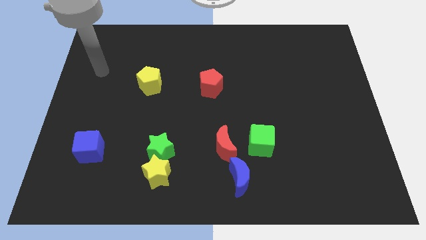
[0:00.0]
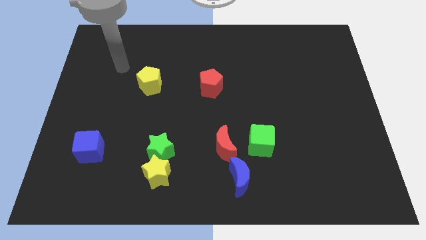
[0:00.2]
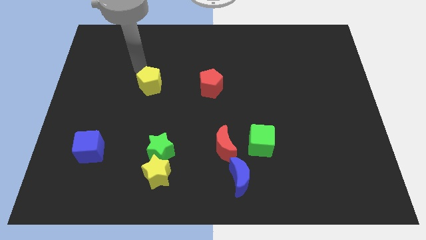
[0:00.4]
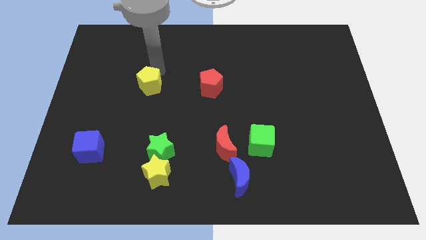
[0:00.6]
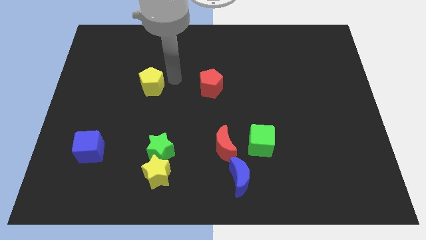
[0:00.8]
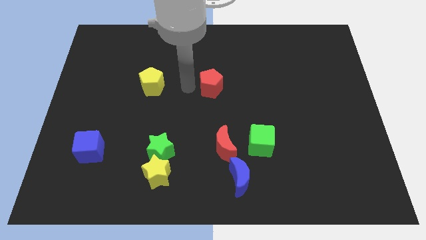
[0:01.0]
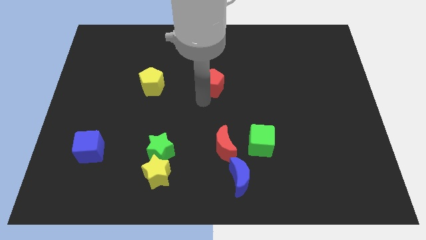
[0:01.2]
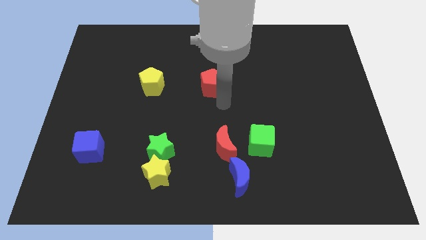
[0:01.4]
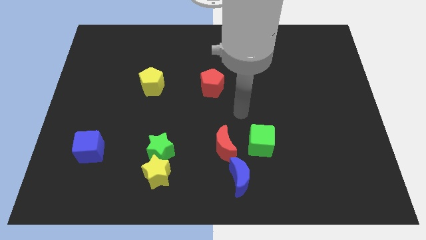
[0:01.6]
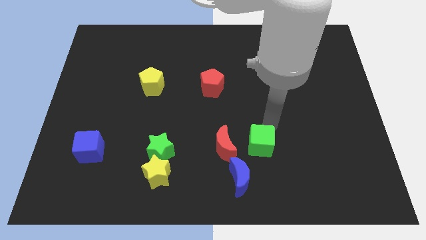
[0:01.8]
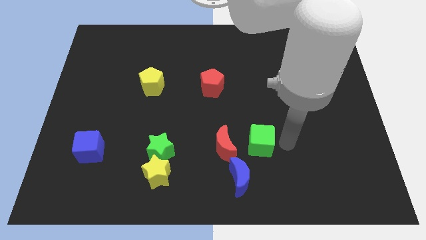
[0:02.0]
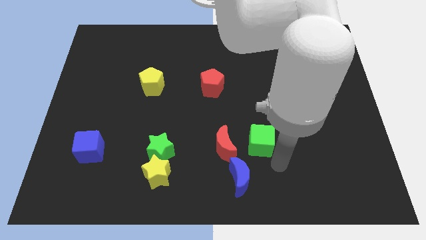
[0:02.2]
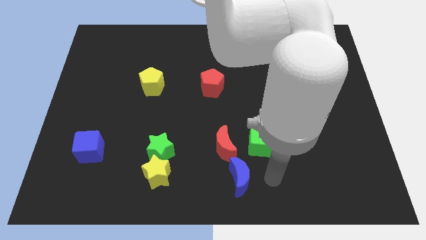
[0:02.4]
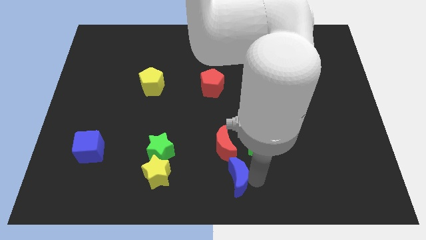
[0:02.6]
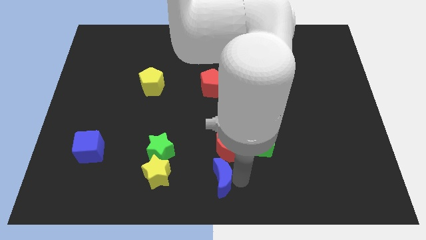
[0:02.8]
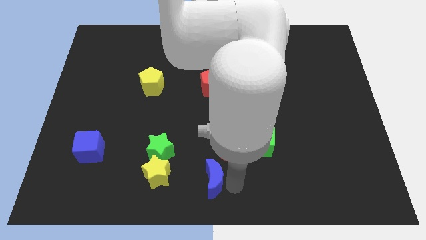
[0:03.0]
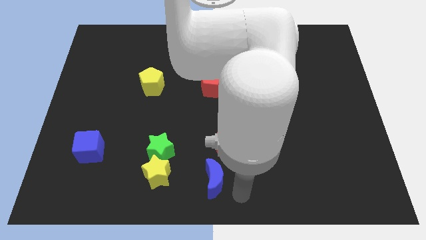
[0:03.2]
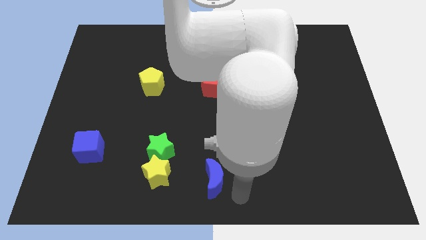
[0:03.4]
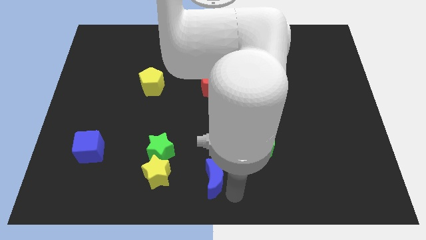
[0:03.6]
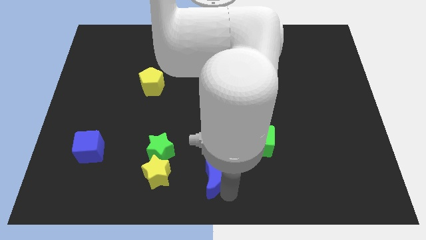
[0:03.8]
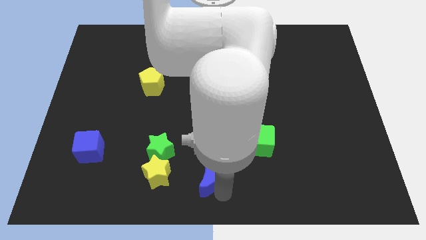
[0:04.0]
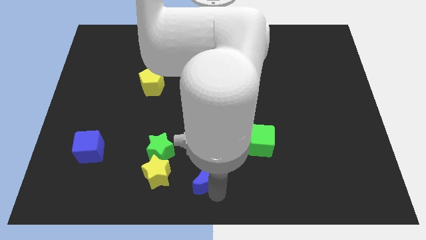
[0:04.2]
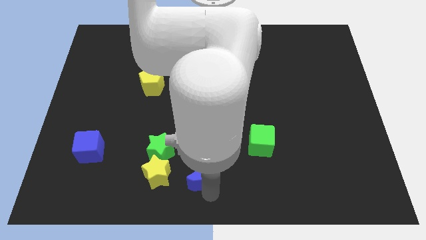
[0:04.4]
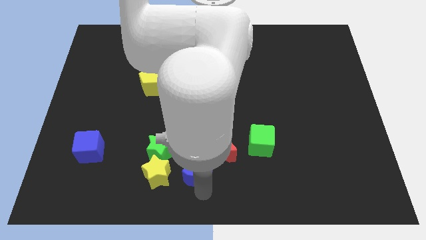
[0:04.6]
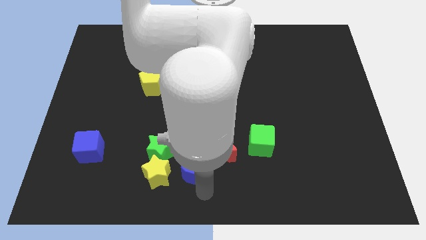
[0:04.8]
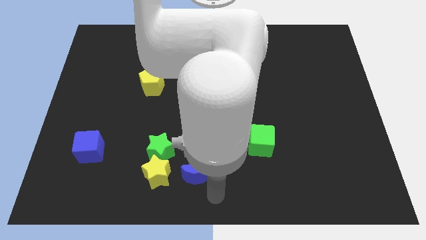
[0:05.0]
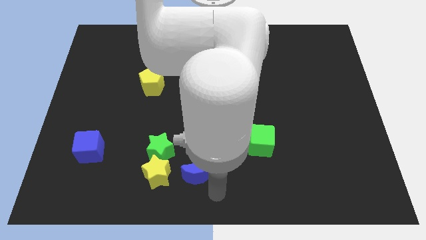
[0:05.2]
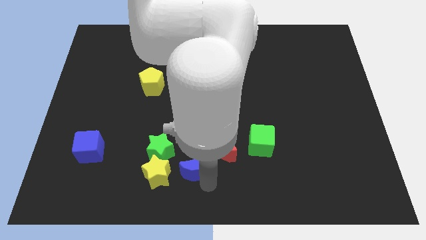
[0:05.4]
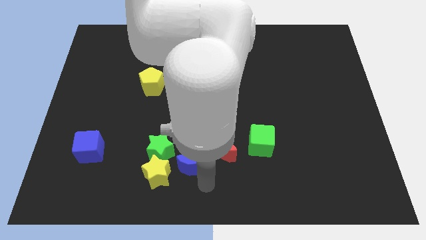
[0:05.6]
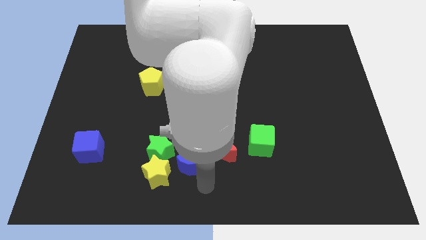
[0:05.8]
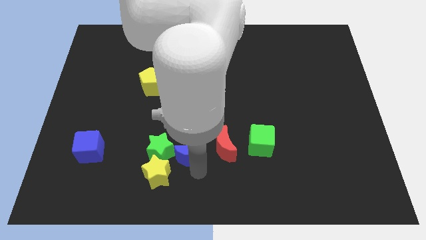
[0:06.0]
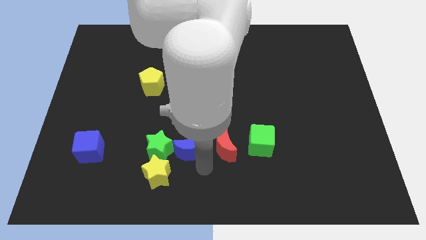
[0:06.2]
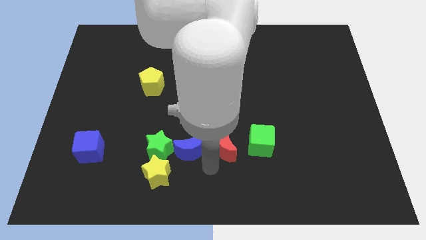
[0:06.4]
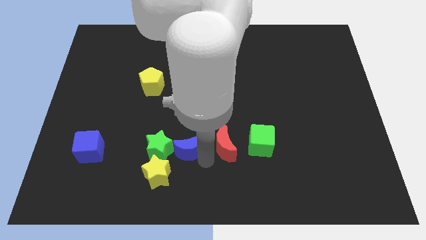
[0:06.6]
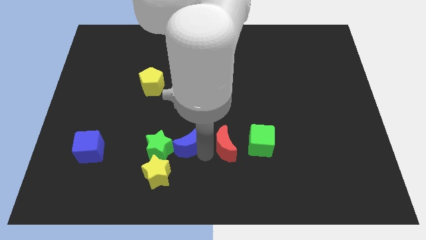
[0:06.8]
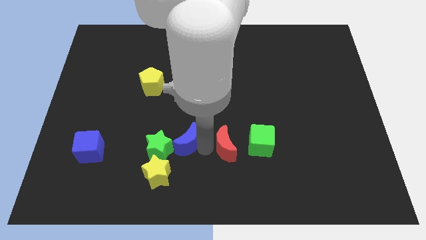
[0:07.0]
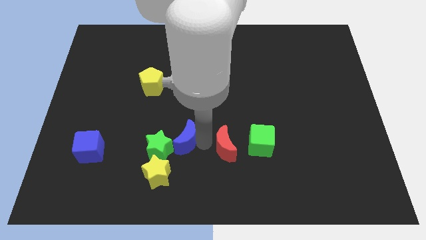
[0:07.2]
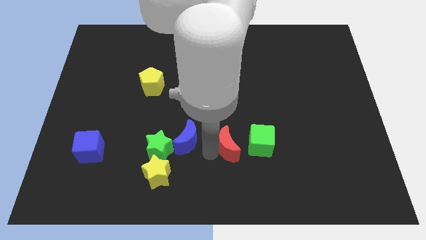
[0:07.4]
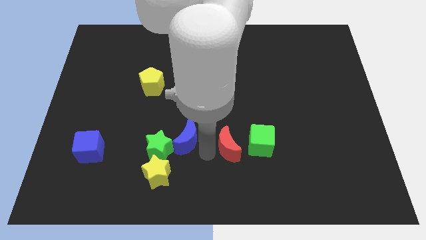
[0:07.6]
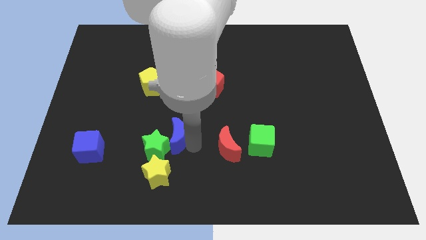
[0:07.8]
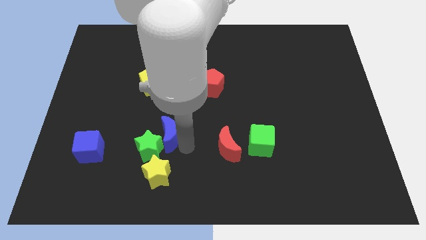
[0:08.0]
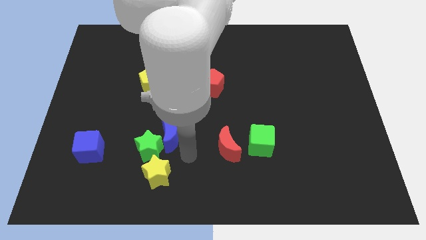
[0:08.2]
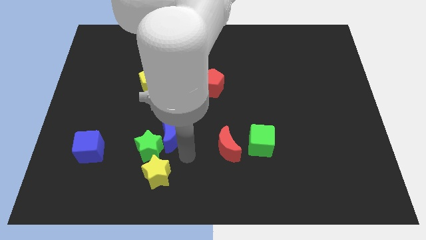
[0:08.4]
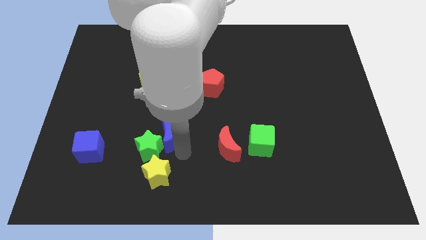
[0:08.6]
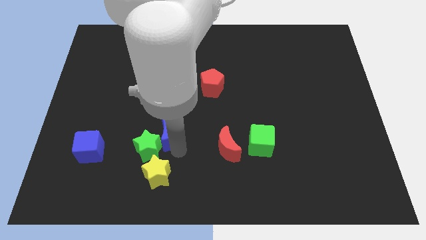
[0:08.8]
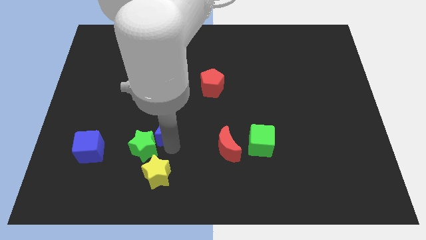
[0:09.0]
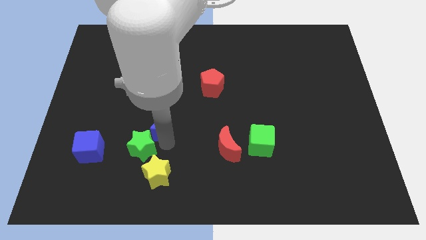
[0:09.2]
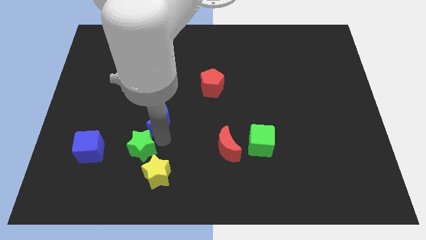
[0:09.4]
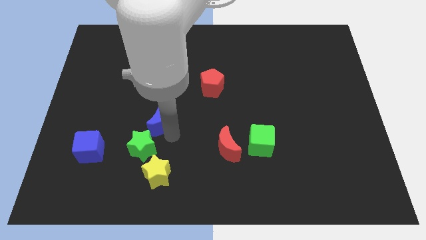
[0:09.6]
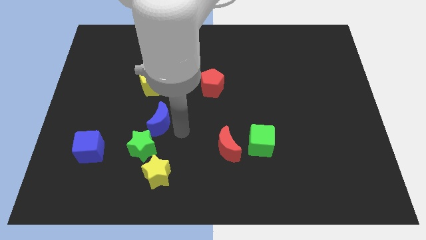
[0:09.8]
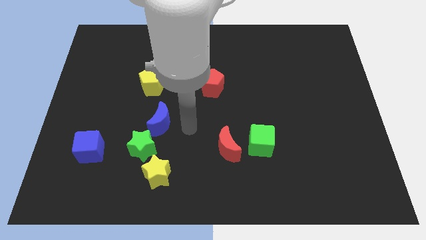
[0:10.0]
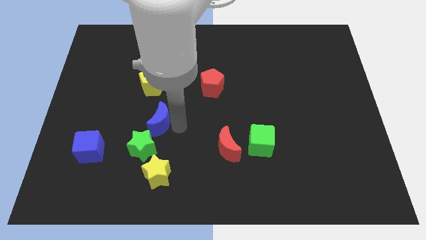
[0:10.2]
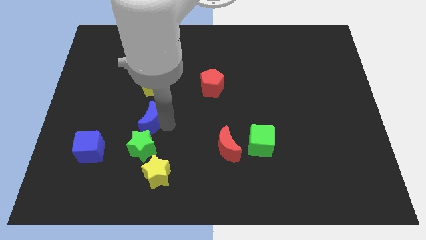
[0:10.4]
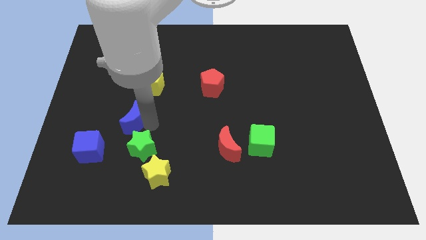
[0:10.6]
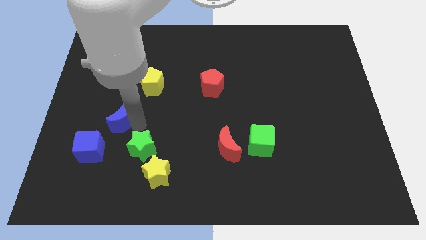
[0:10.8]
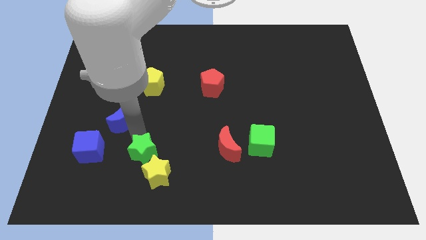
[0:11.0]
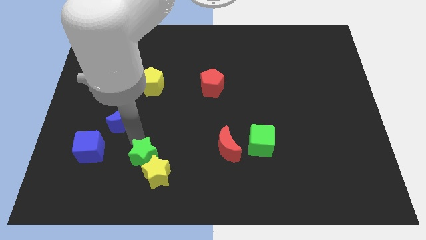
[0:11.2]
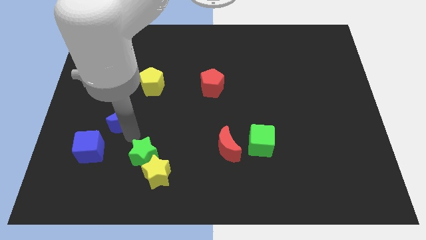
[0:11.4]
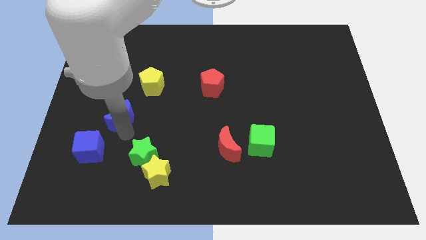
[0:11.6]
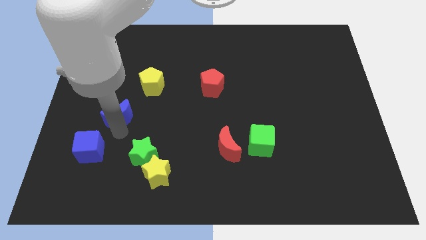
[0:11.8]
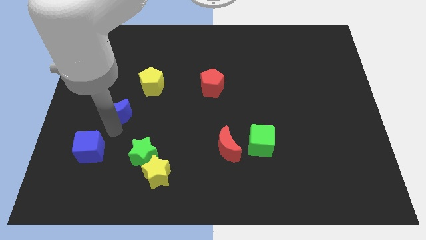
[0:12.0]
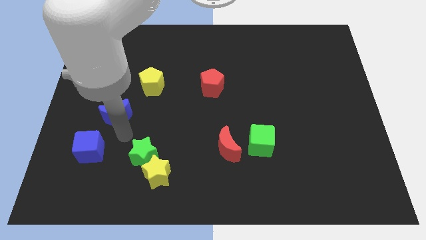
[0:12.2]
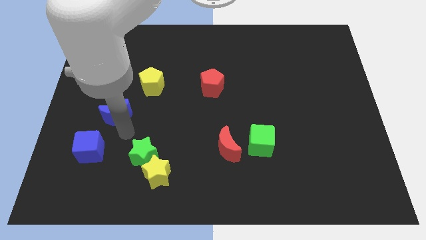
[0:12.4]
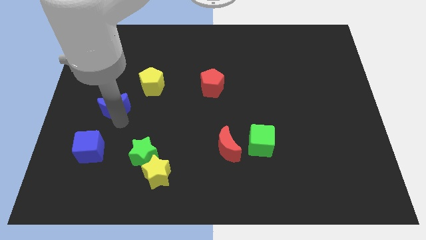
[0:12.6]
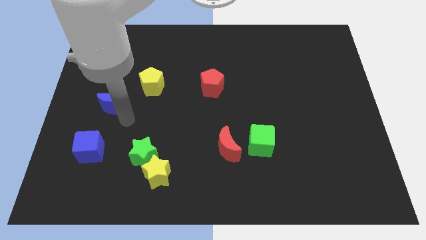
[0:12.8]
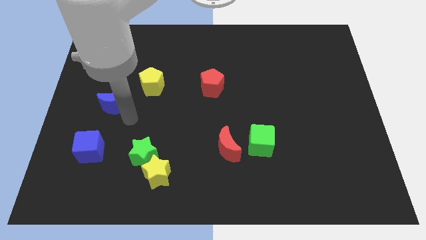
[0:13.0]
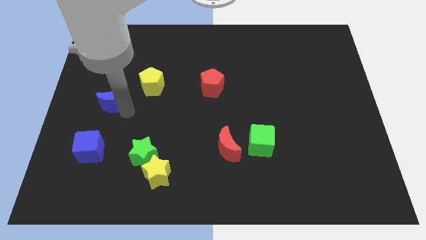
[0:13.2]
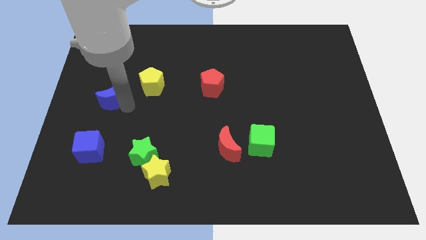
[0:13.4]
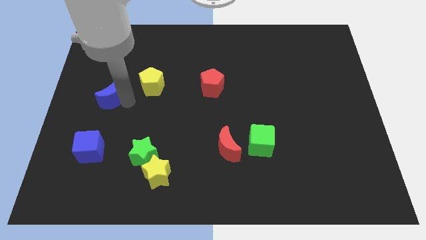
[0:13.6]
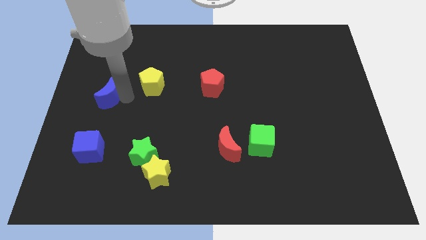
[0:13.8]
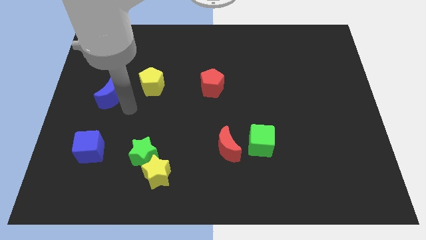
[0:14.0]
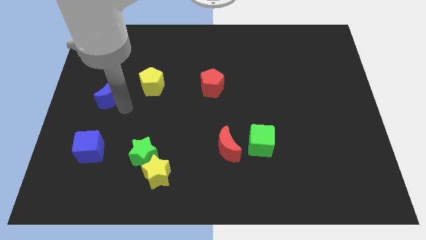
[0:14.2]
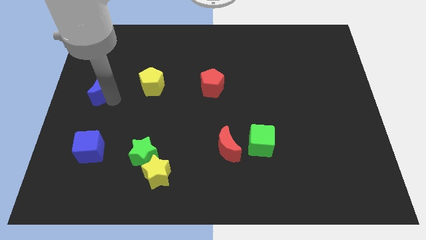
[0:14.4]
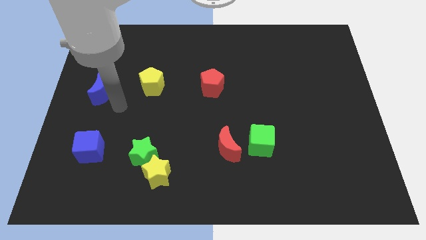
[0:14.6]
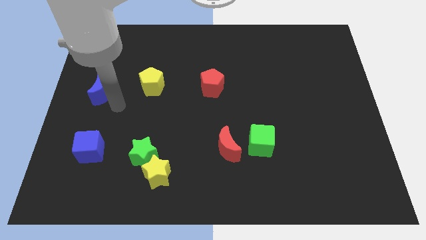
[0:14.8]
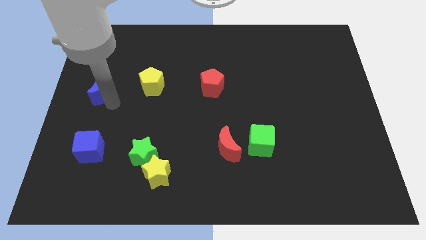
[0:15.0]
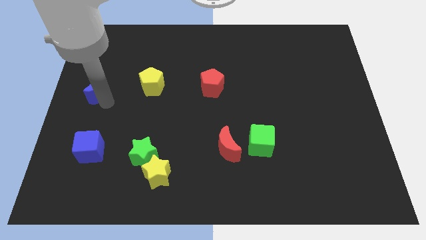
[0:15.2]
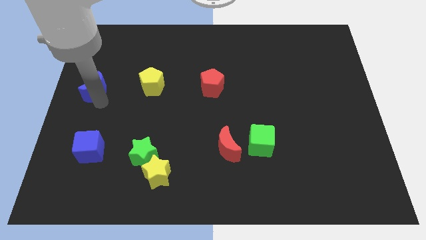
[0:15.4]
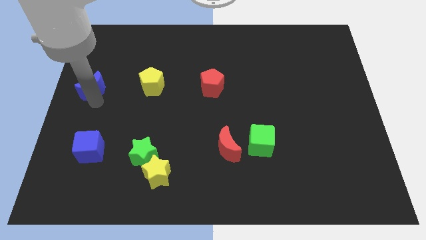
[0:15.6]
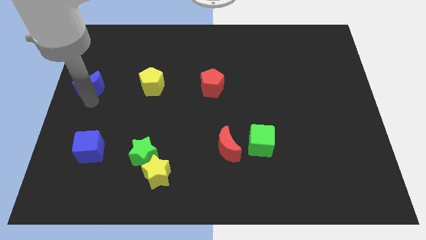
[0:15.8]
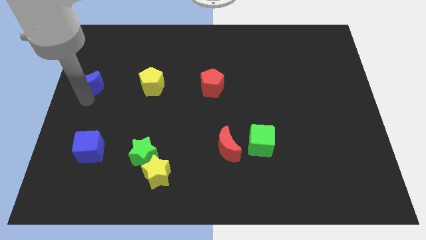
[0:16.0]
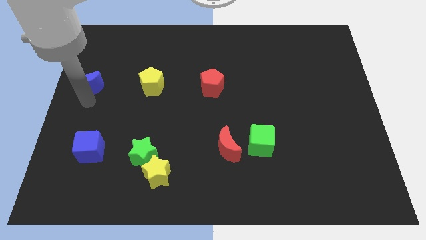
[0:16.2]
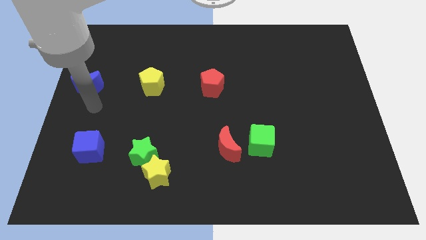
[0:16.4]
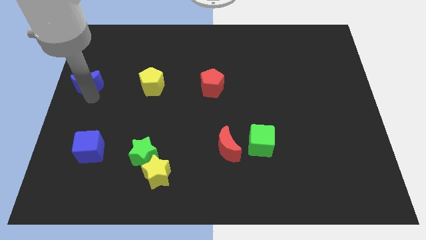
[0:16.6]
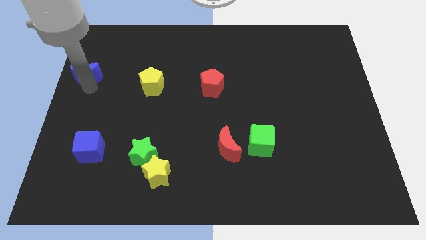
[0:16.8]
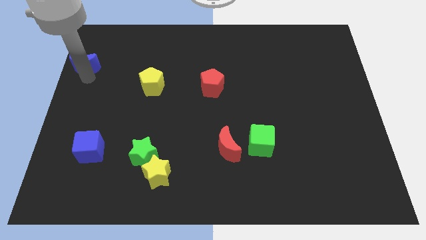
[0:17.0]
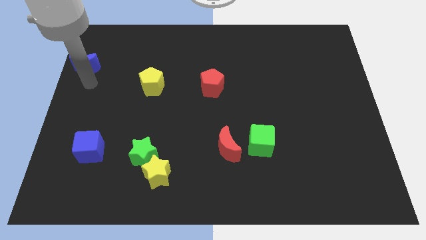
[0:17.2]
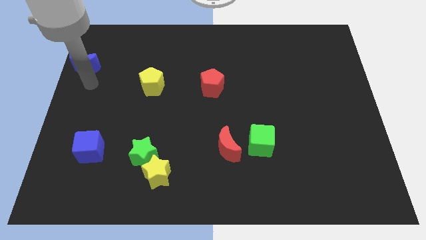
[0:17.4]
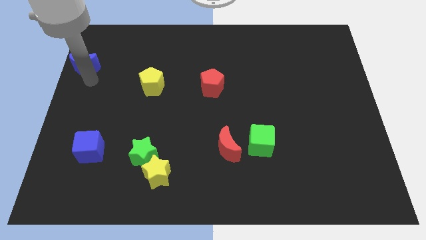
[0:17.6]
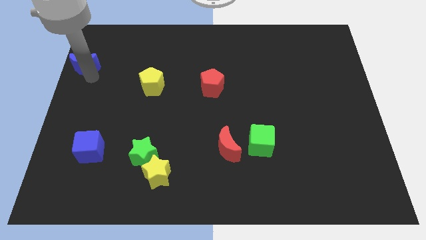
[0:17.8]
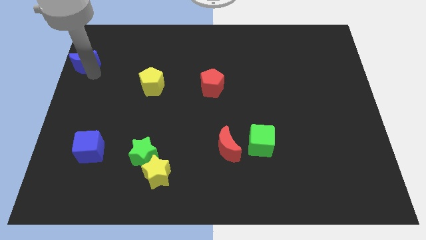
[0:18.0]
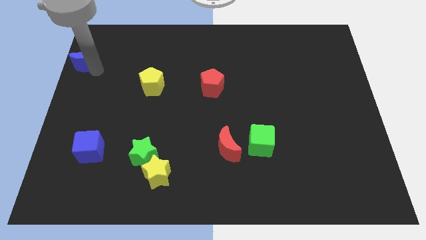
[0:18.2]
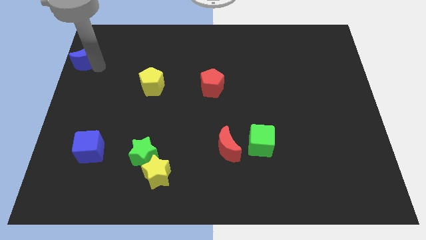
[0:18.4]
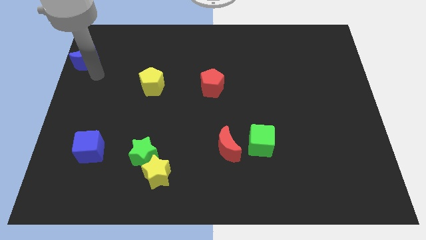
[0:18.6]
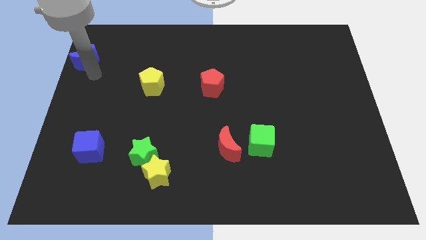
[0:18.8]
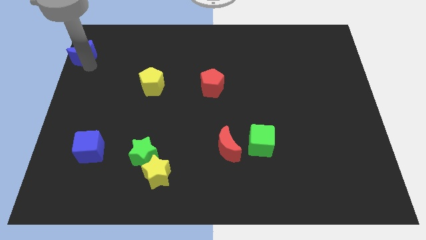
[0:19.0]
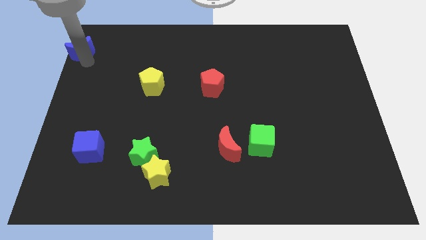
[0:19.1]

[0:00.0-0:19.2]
move the blue moon to the top left
